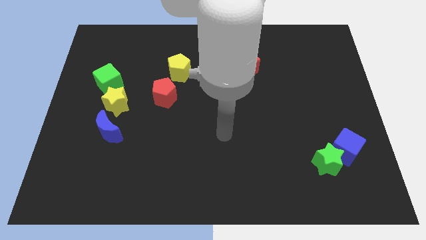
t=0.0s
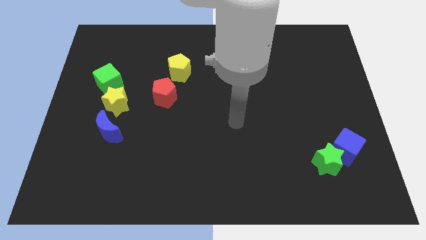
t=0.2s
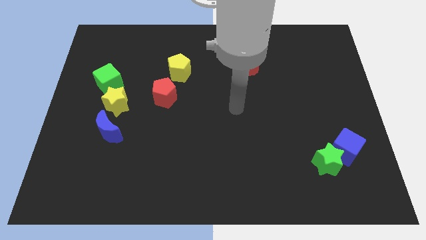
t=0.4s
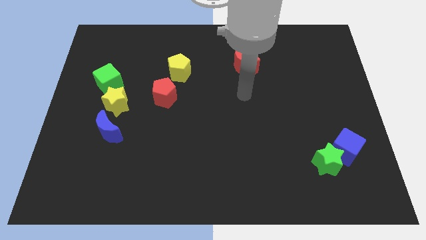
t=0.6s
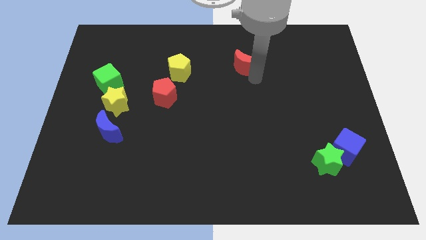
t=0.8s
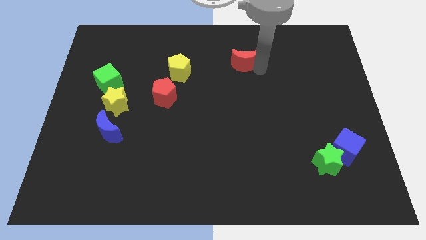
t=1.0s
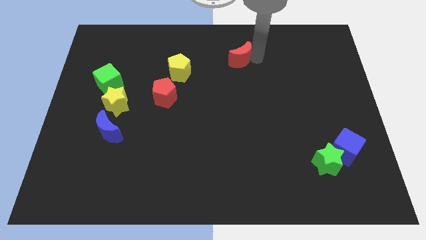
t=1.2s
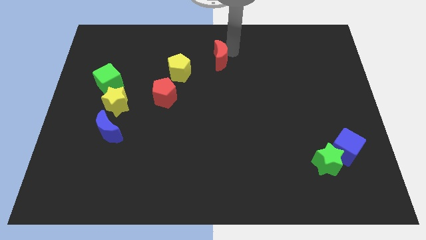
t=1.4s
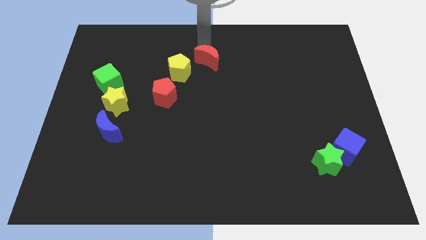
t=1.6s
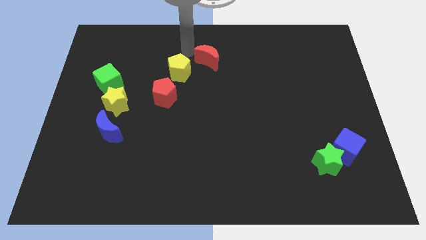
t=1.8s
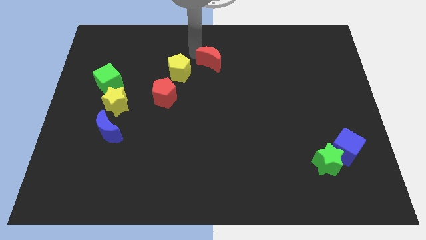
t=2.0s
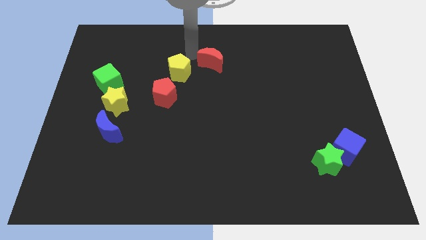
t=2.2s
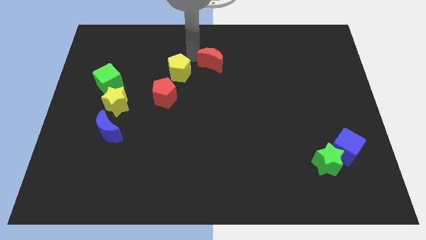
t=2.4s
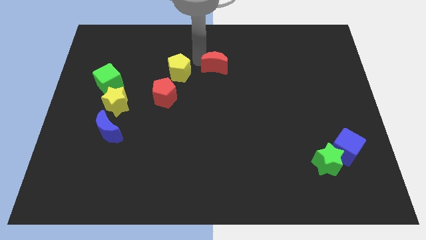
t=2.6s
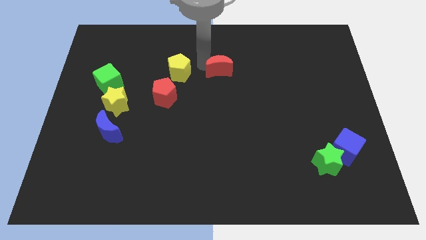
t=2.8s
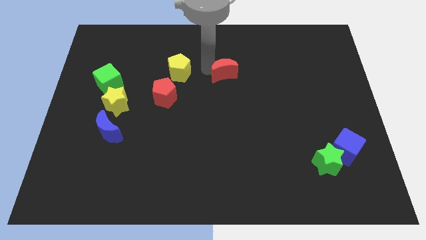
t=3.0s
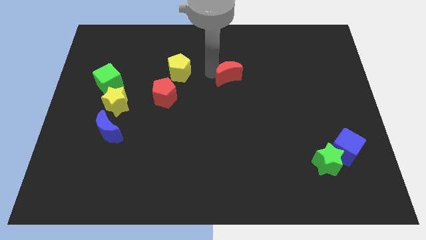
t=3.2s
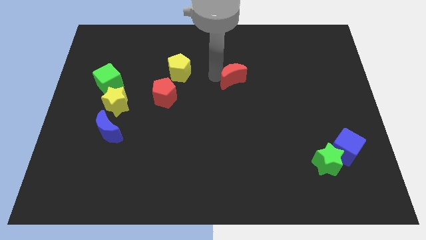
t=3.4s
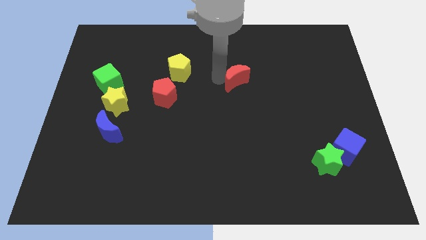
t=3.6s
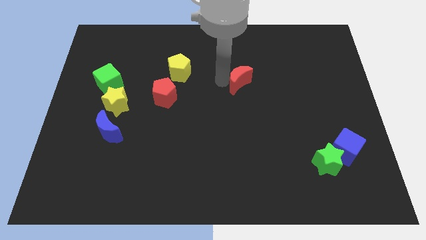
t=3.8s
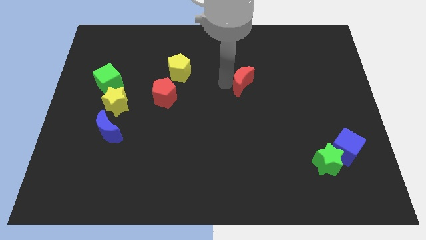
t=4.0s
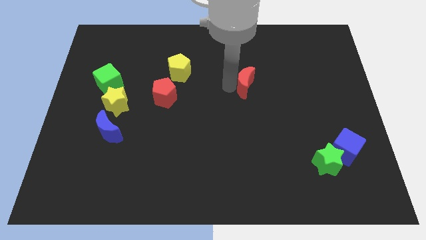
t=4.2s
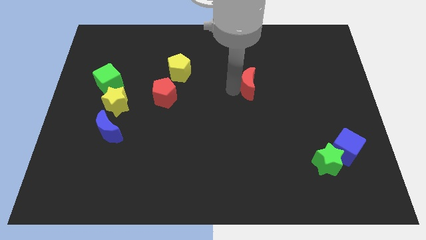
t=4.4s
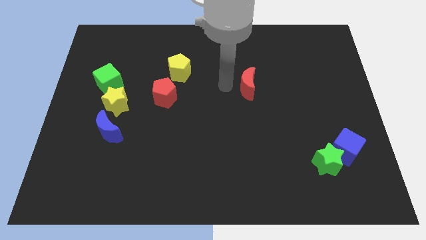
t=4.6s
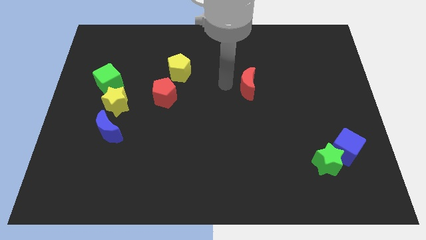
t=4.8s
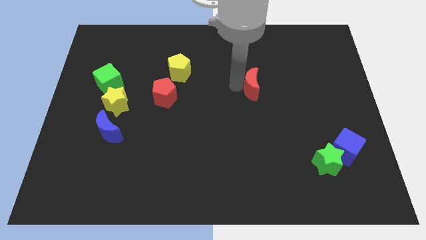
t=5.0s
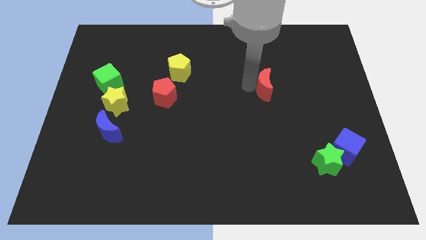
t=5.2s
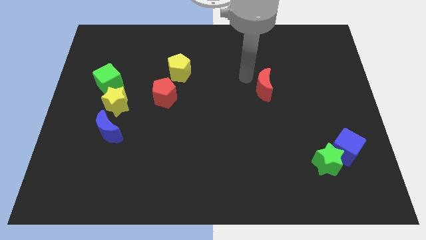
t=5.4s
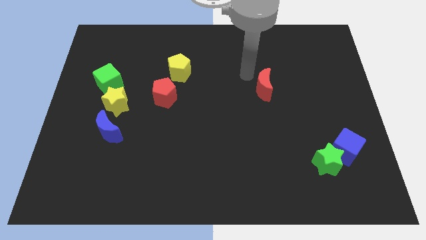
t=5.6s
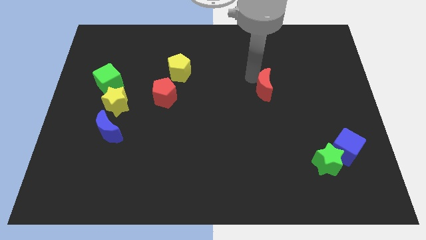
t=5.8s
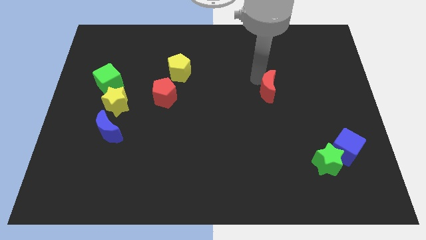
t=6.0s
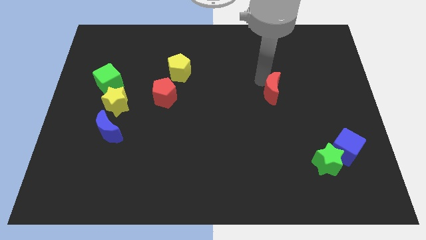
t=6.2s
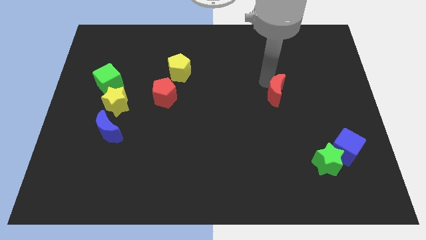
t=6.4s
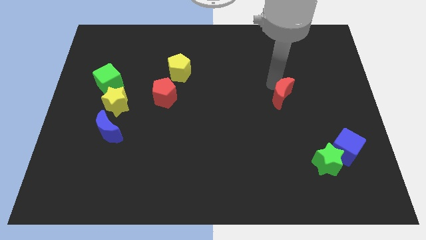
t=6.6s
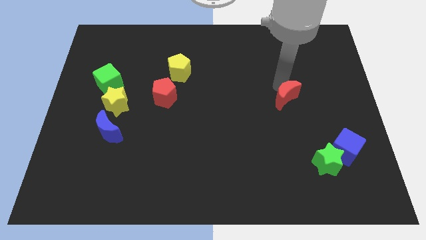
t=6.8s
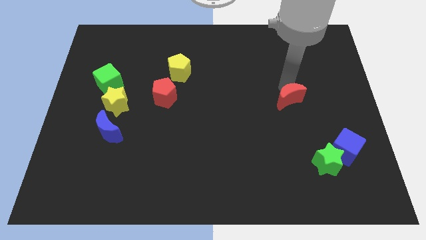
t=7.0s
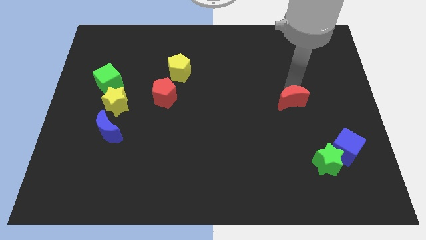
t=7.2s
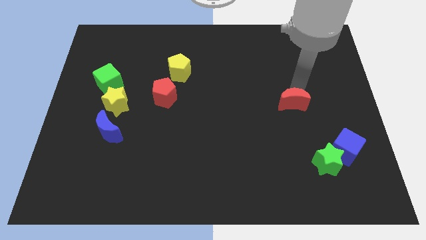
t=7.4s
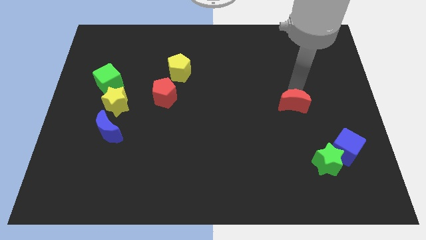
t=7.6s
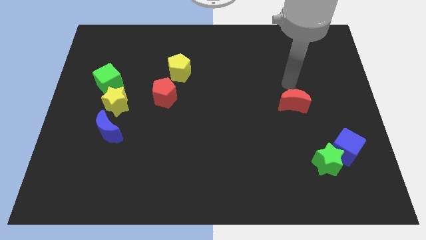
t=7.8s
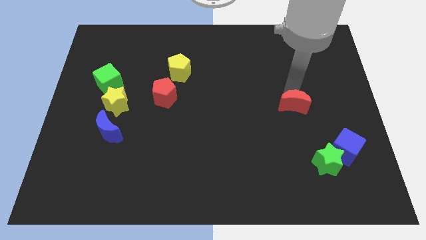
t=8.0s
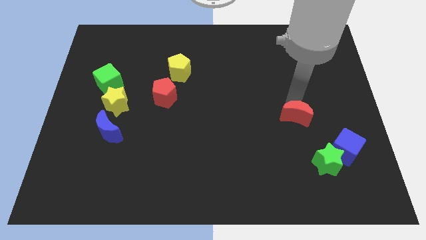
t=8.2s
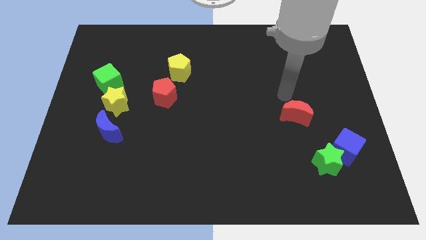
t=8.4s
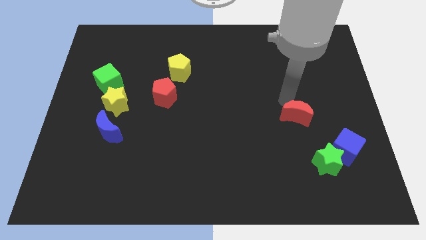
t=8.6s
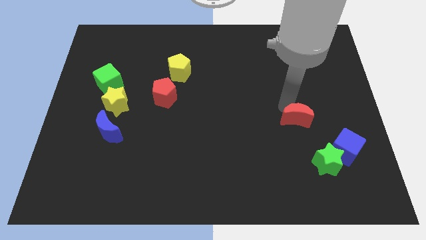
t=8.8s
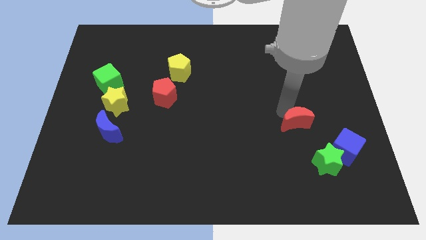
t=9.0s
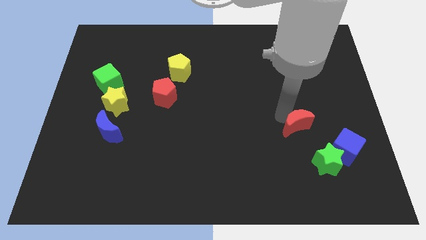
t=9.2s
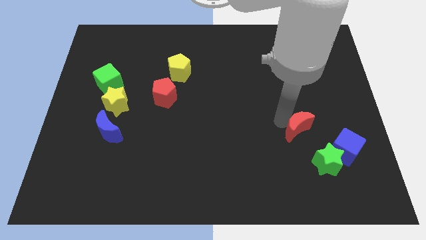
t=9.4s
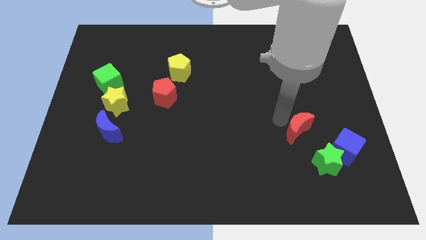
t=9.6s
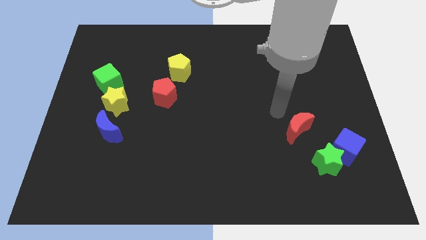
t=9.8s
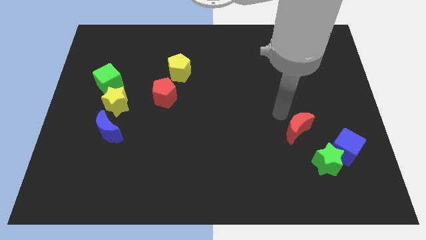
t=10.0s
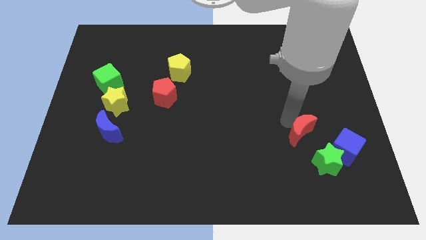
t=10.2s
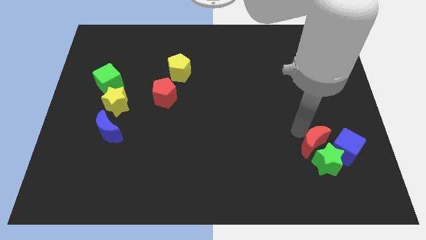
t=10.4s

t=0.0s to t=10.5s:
push the red moon towards the green star

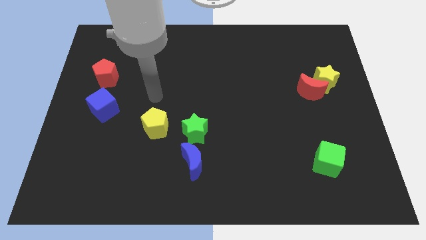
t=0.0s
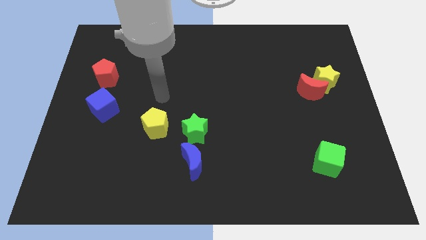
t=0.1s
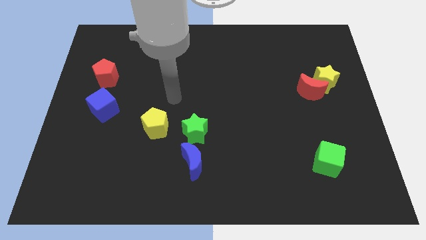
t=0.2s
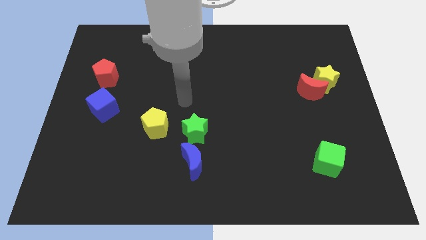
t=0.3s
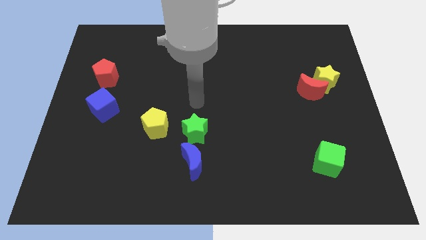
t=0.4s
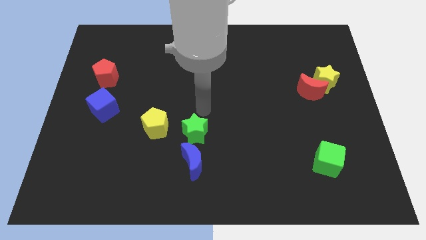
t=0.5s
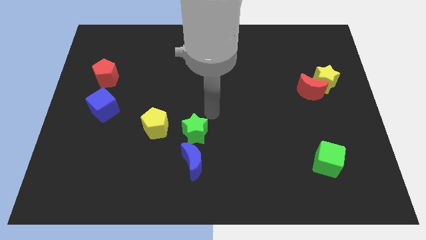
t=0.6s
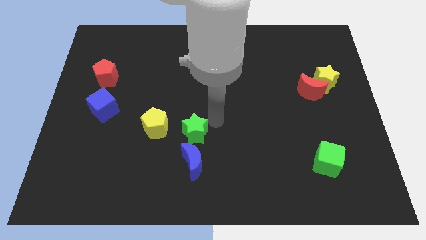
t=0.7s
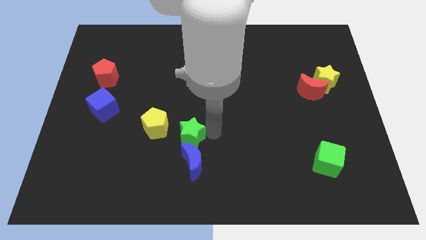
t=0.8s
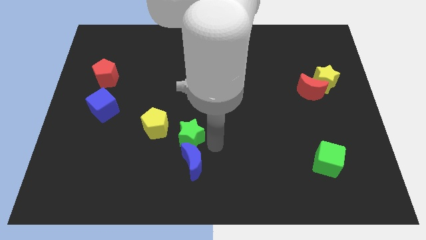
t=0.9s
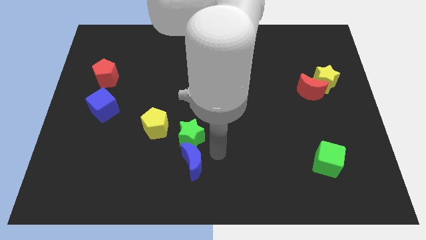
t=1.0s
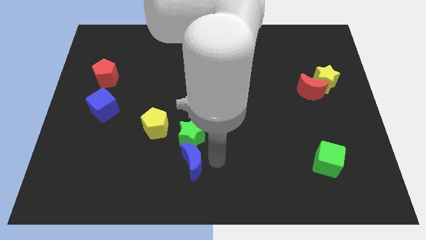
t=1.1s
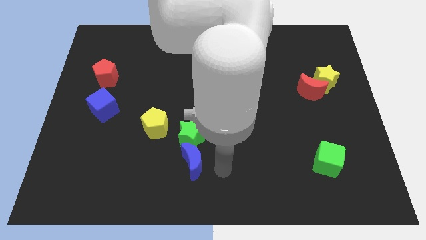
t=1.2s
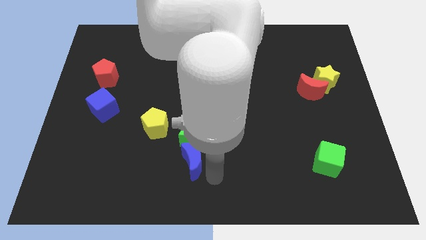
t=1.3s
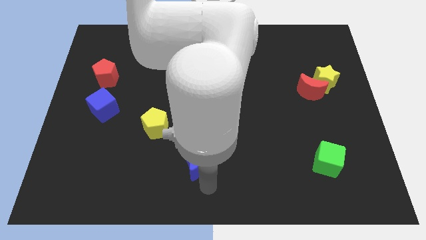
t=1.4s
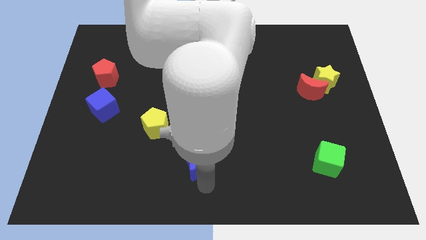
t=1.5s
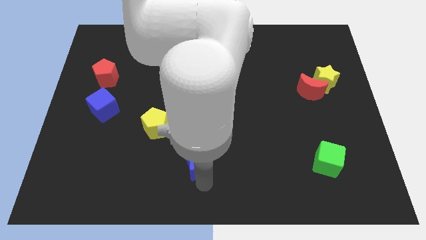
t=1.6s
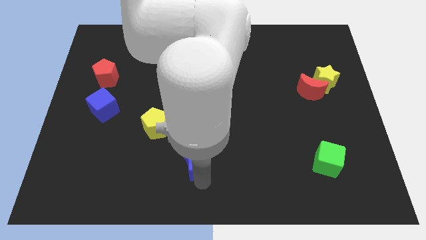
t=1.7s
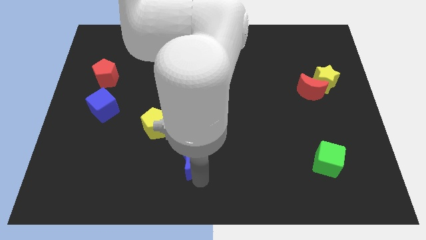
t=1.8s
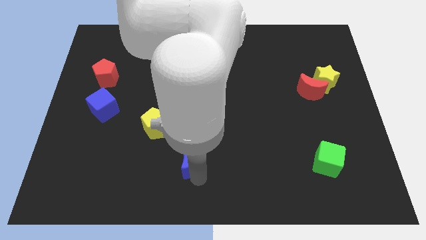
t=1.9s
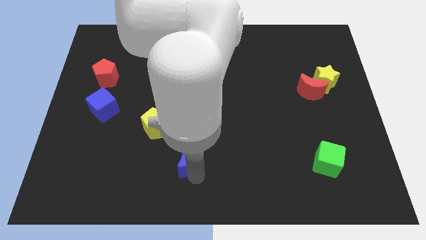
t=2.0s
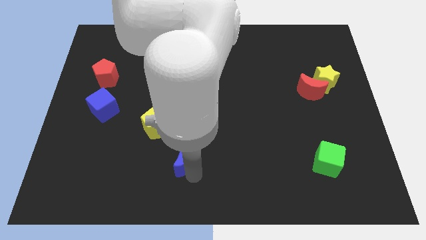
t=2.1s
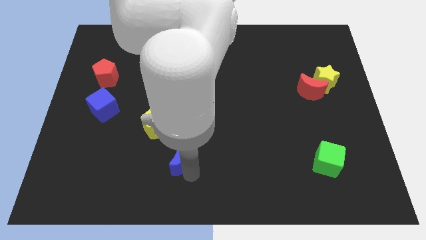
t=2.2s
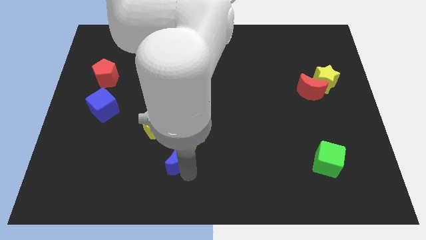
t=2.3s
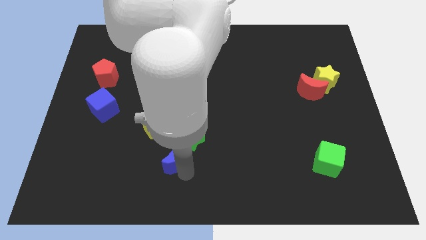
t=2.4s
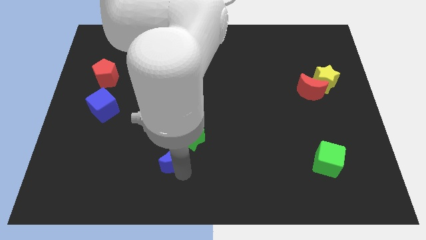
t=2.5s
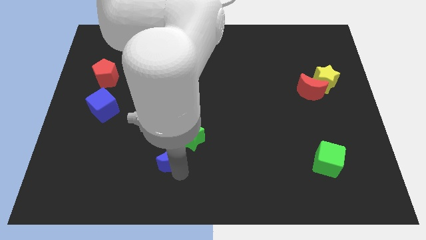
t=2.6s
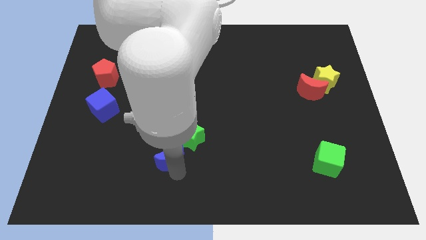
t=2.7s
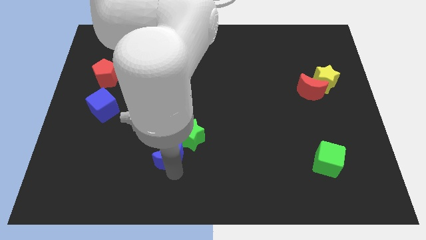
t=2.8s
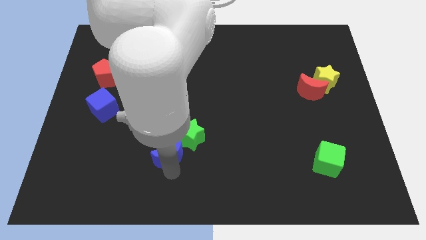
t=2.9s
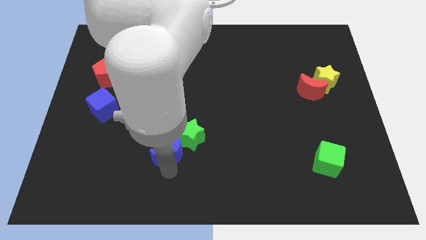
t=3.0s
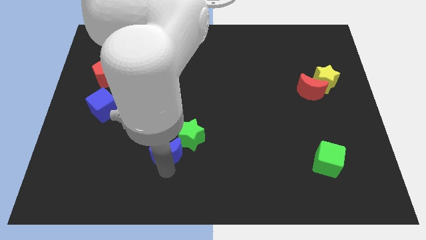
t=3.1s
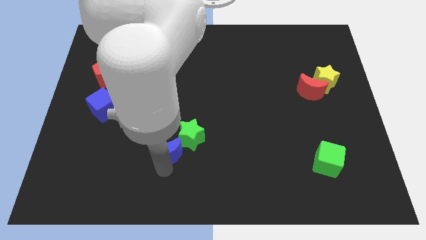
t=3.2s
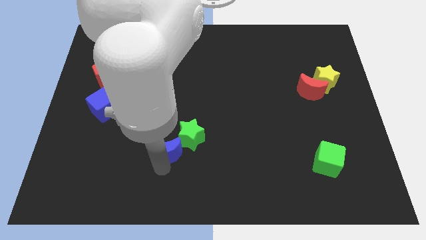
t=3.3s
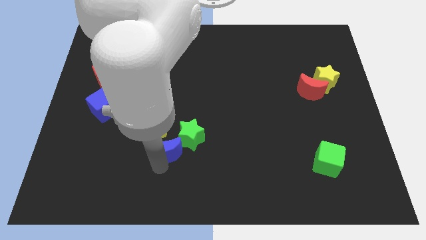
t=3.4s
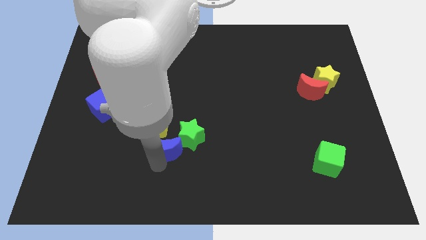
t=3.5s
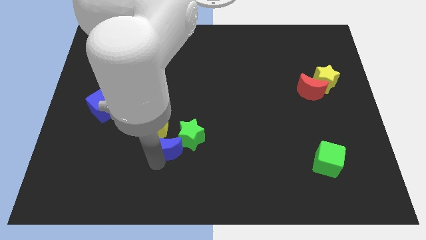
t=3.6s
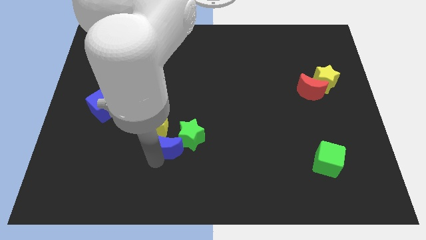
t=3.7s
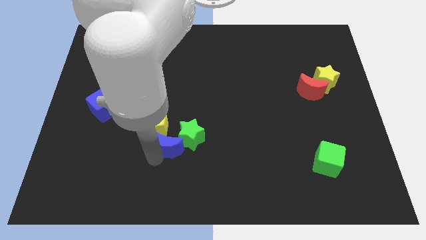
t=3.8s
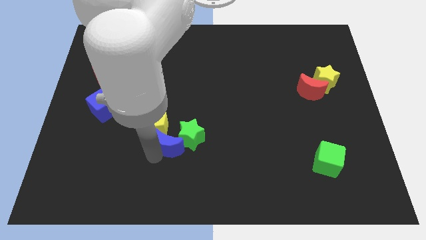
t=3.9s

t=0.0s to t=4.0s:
move the blue moon to the yellow pentagon
